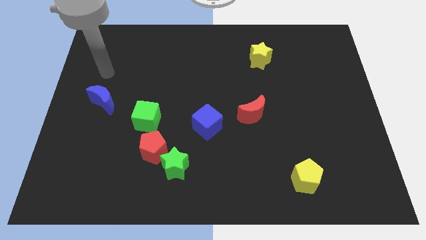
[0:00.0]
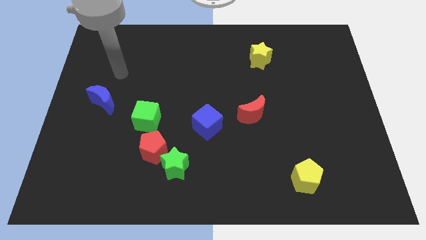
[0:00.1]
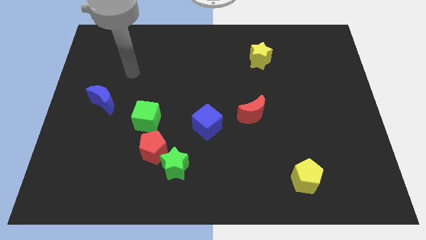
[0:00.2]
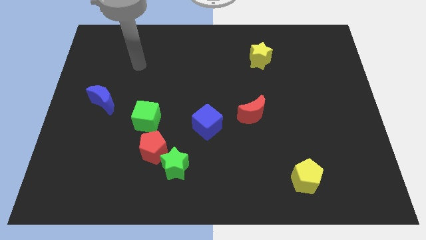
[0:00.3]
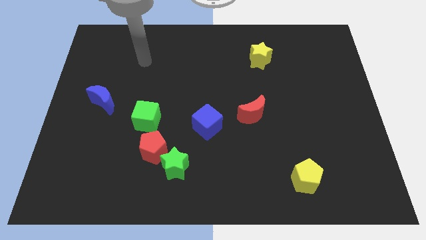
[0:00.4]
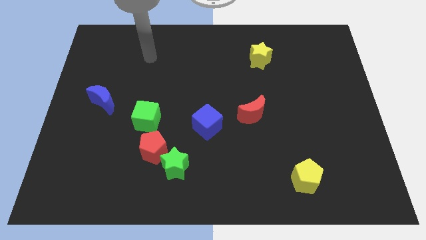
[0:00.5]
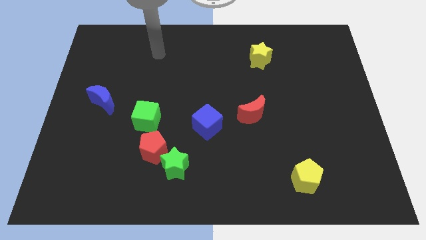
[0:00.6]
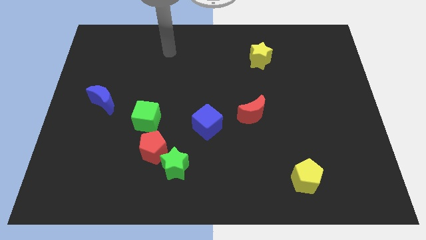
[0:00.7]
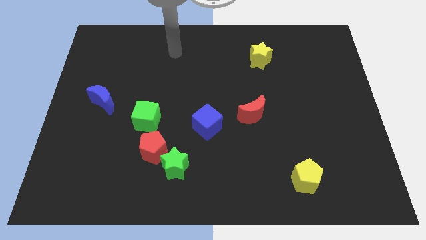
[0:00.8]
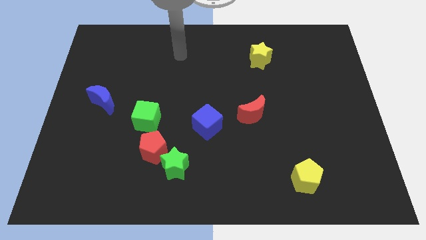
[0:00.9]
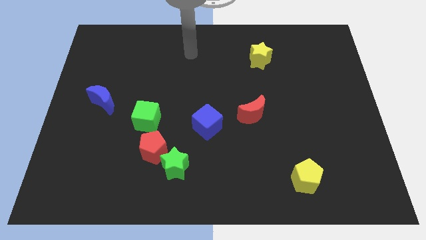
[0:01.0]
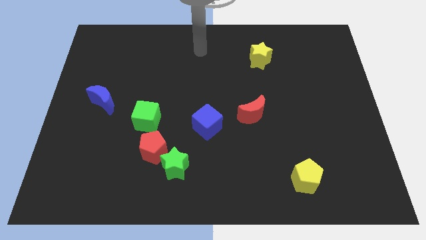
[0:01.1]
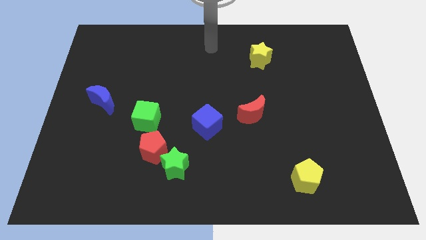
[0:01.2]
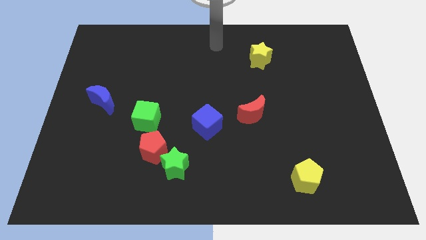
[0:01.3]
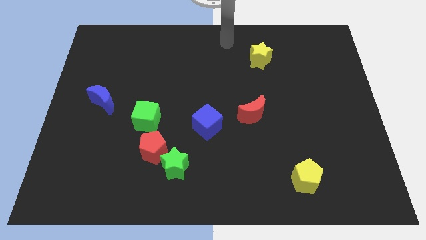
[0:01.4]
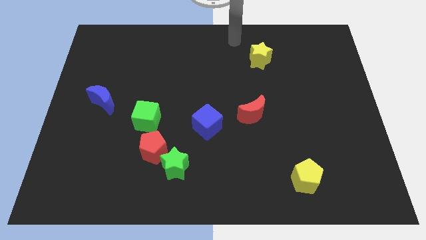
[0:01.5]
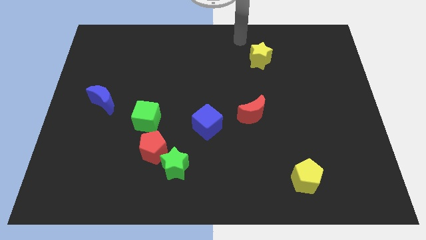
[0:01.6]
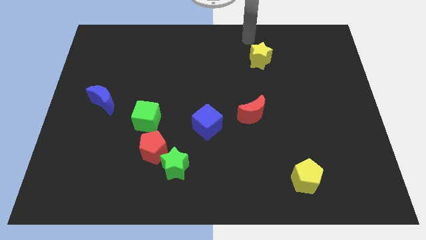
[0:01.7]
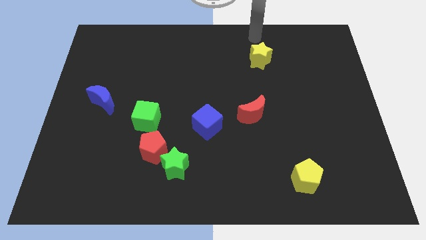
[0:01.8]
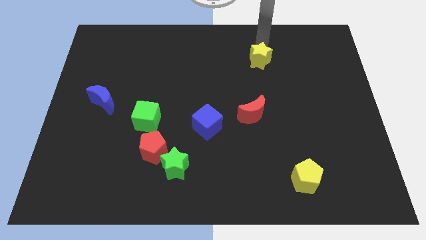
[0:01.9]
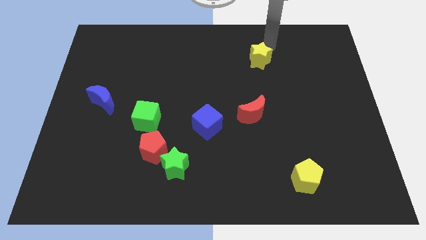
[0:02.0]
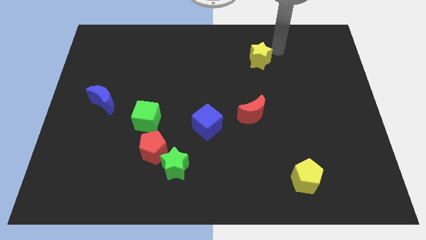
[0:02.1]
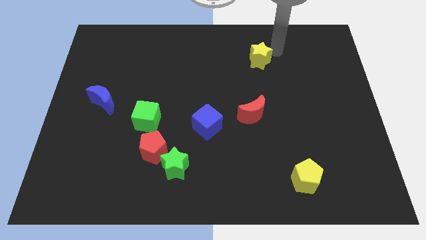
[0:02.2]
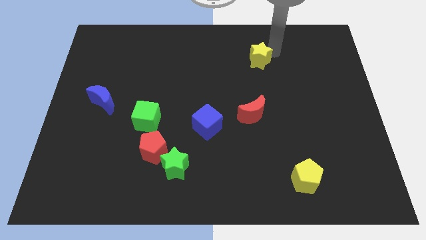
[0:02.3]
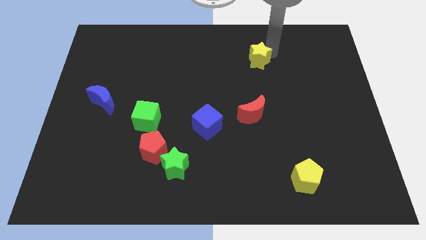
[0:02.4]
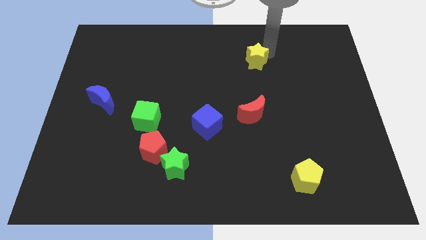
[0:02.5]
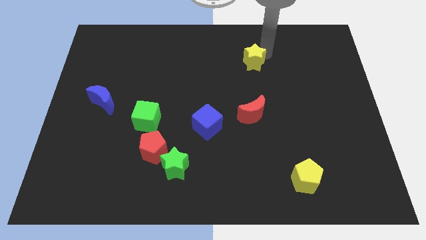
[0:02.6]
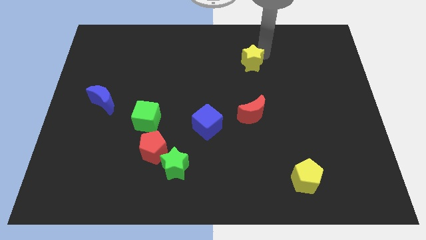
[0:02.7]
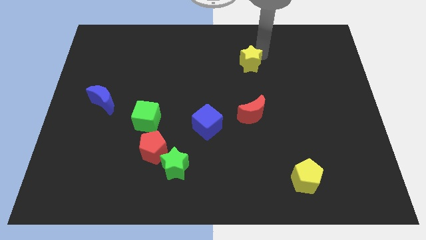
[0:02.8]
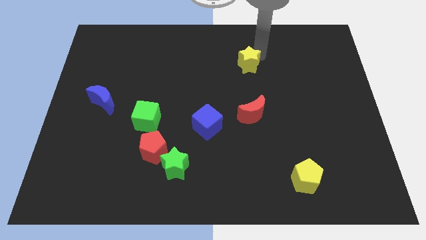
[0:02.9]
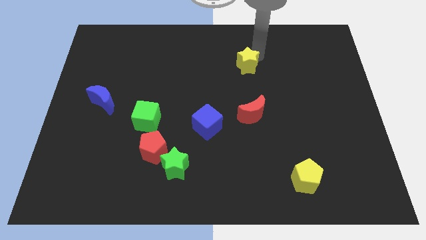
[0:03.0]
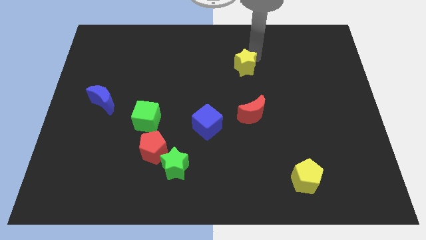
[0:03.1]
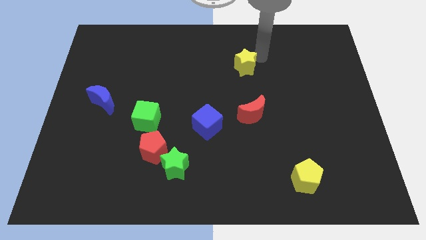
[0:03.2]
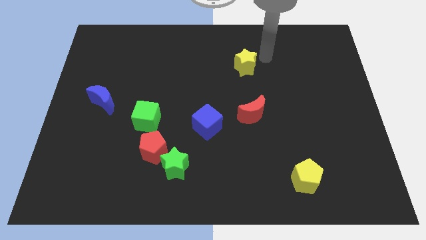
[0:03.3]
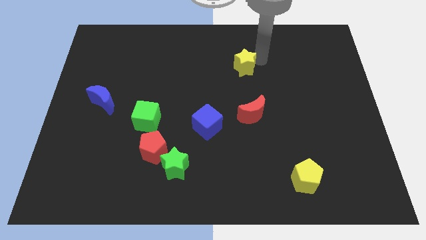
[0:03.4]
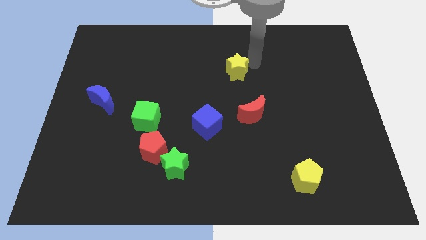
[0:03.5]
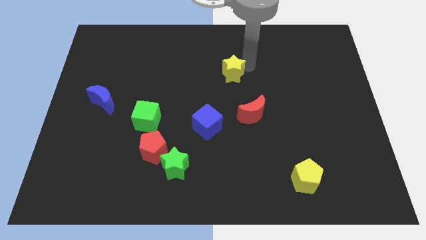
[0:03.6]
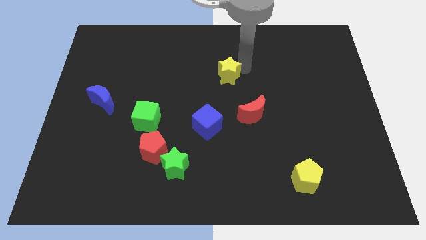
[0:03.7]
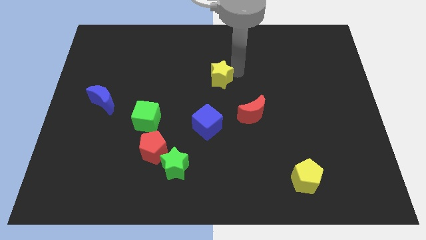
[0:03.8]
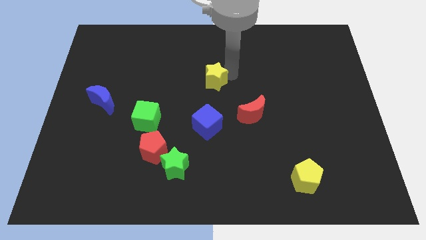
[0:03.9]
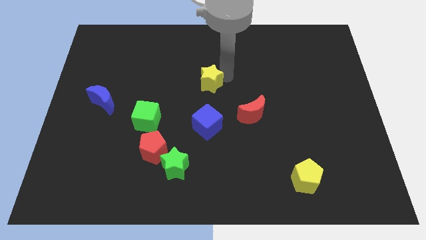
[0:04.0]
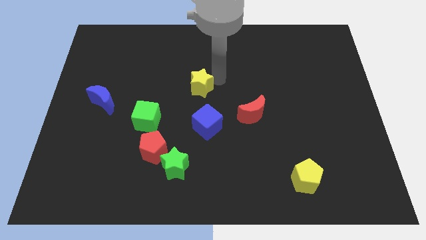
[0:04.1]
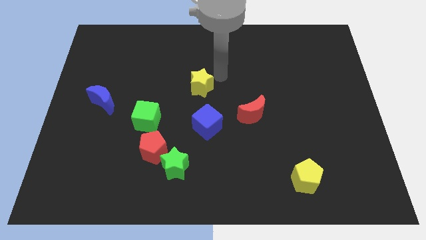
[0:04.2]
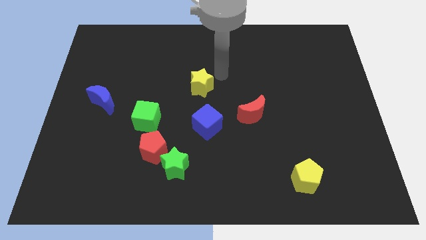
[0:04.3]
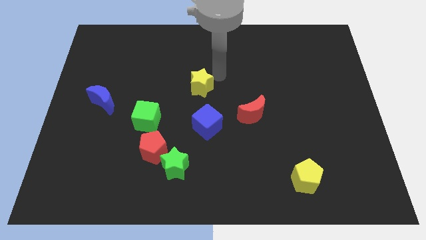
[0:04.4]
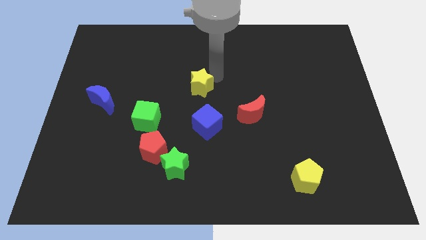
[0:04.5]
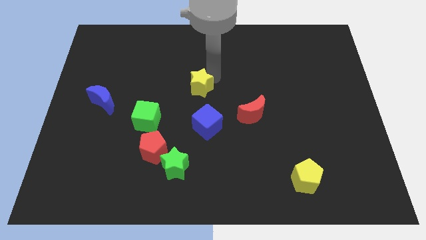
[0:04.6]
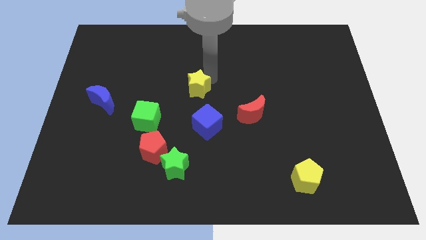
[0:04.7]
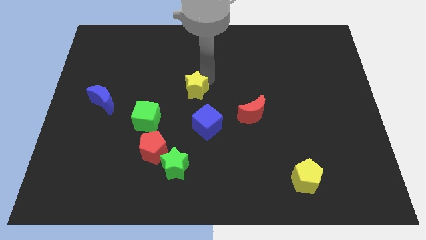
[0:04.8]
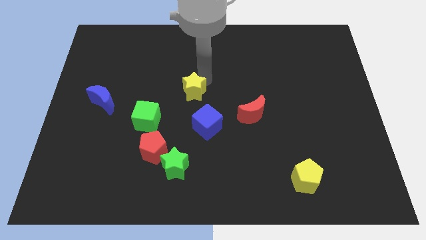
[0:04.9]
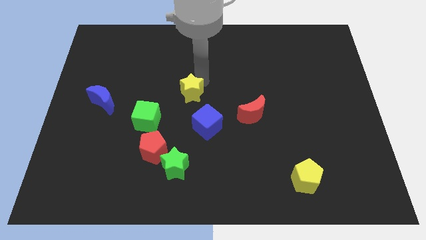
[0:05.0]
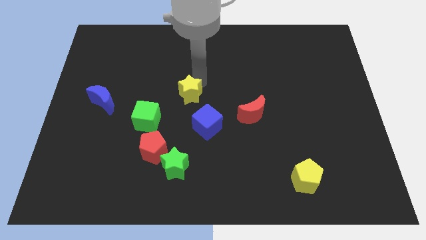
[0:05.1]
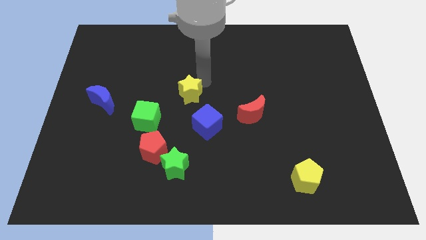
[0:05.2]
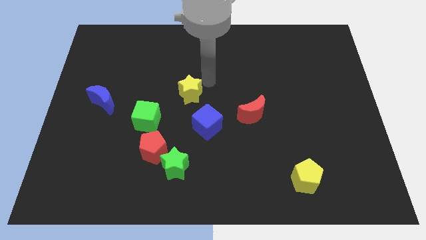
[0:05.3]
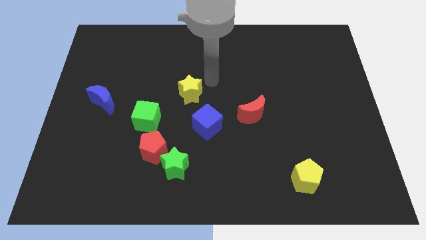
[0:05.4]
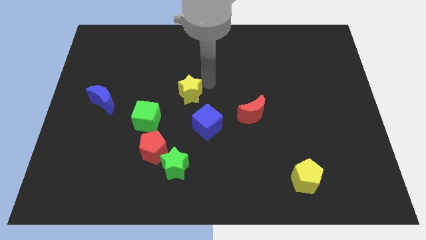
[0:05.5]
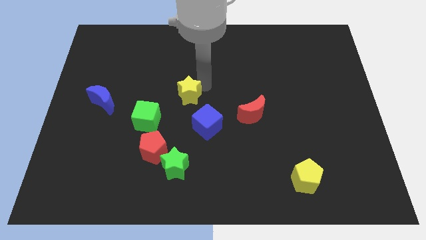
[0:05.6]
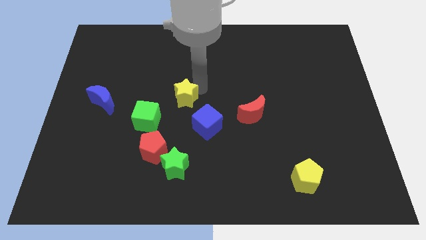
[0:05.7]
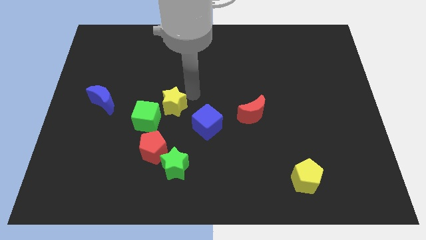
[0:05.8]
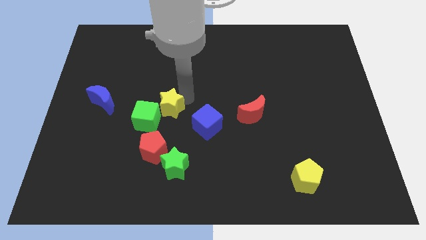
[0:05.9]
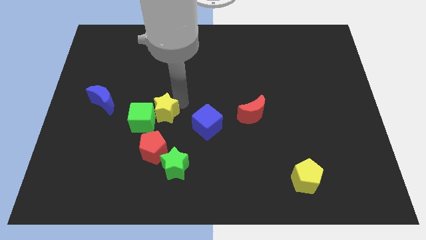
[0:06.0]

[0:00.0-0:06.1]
put the yellow star towards the green cube

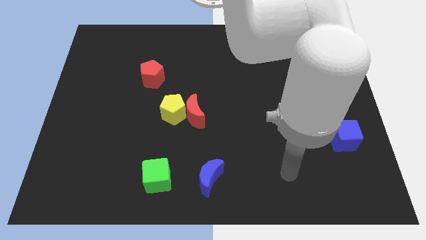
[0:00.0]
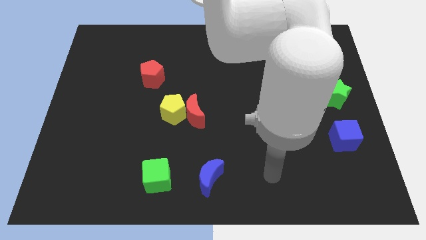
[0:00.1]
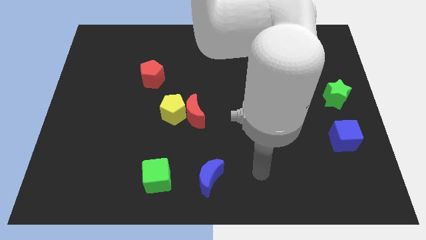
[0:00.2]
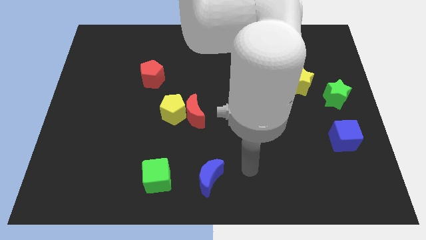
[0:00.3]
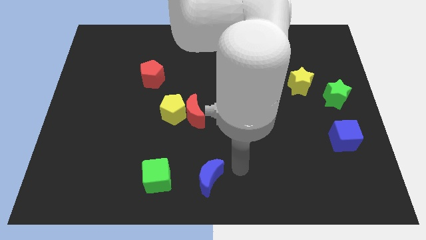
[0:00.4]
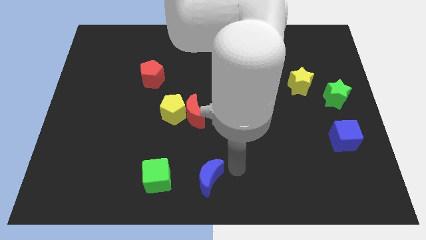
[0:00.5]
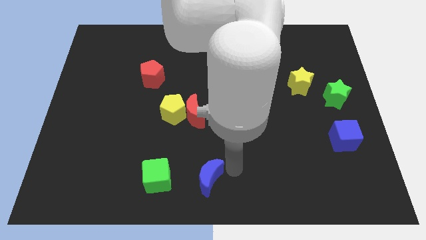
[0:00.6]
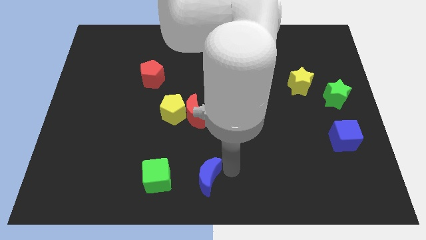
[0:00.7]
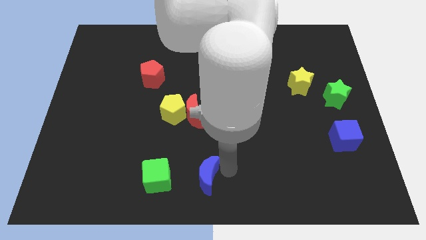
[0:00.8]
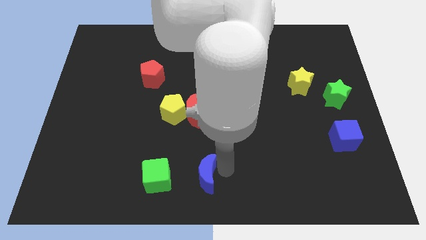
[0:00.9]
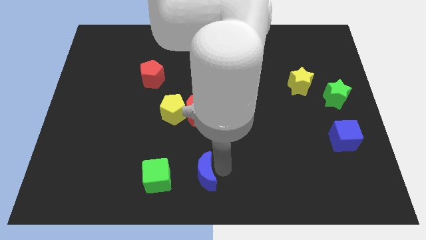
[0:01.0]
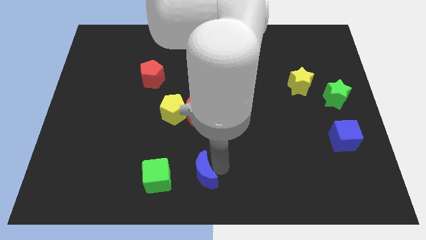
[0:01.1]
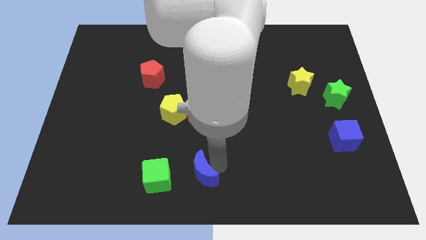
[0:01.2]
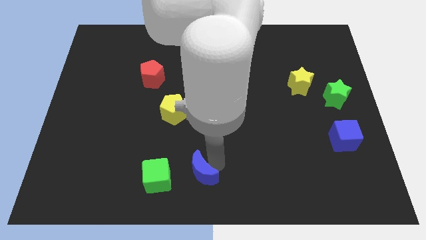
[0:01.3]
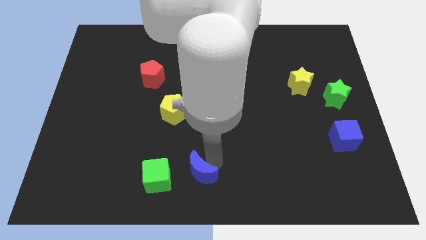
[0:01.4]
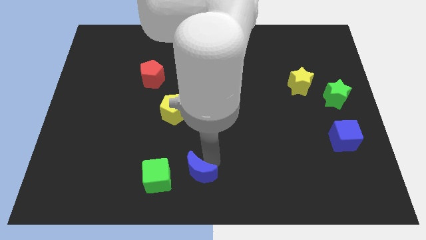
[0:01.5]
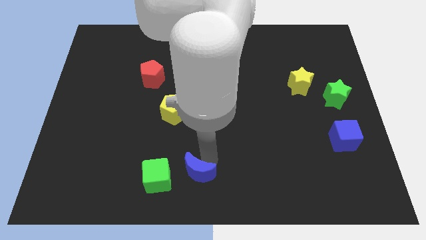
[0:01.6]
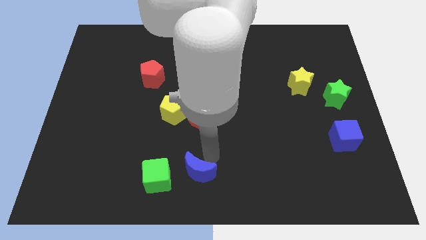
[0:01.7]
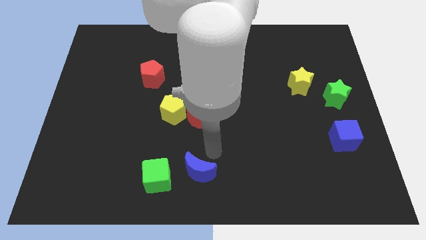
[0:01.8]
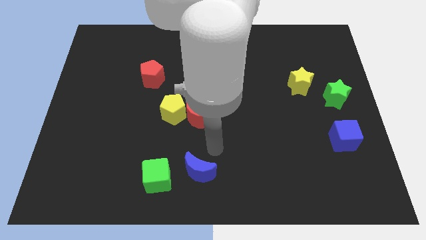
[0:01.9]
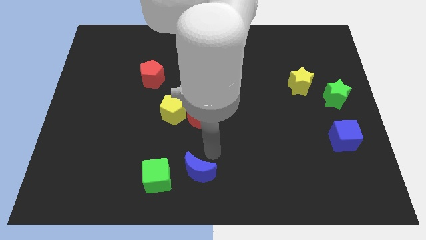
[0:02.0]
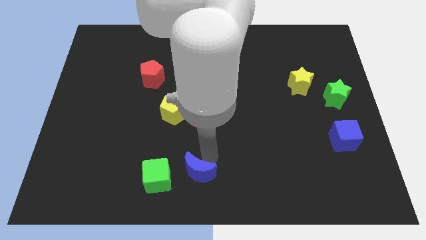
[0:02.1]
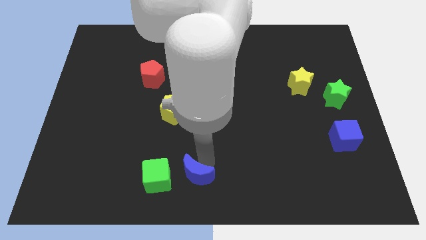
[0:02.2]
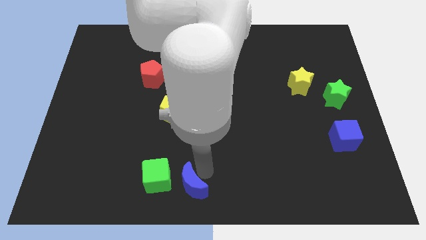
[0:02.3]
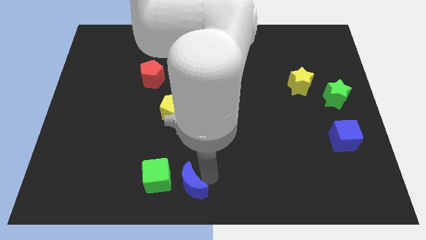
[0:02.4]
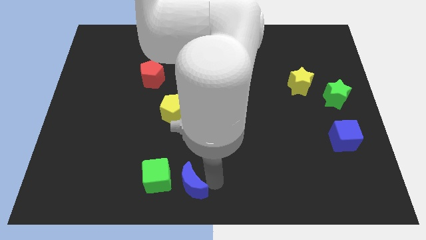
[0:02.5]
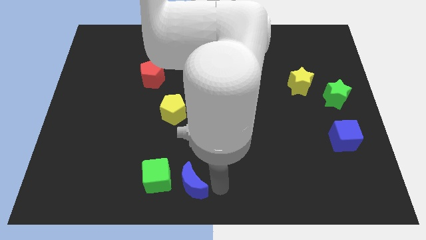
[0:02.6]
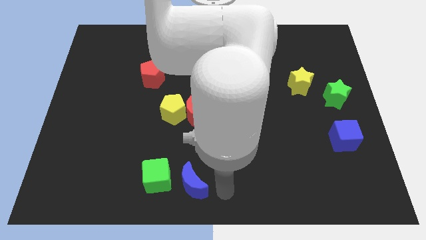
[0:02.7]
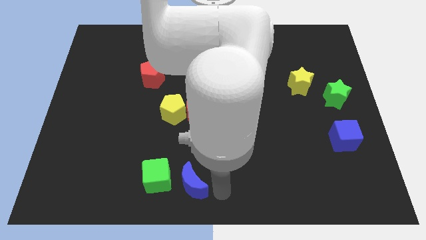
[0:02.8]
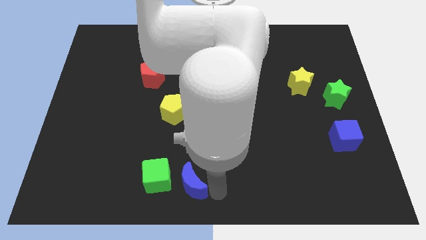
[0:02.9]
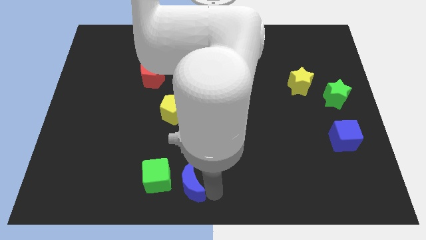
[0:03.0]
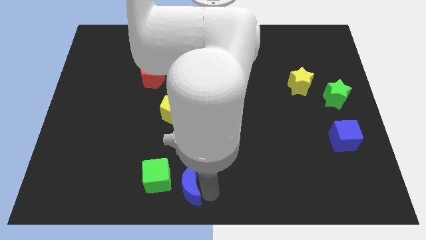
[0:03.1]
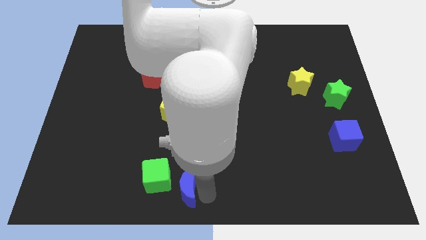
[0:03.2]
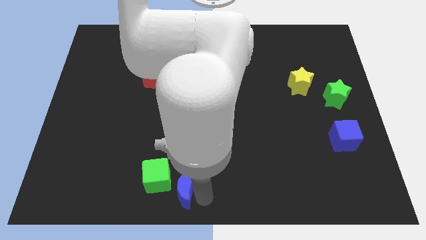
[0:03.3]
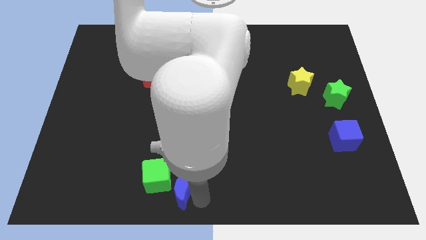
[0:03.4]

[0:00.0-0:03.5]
push the blue moon close to the green cube
